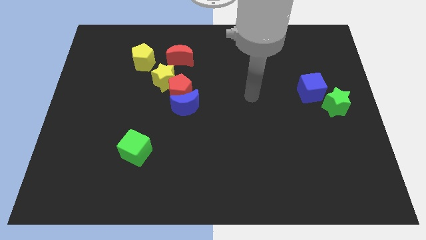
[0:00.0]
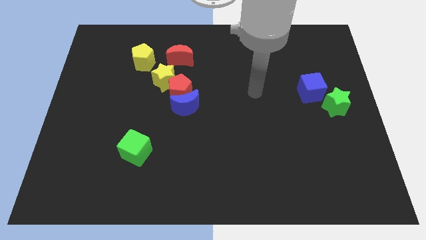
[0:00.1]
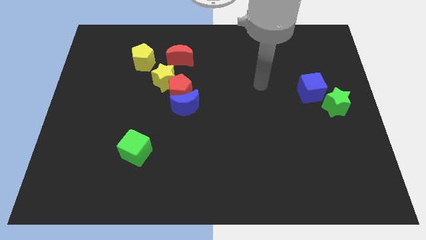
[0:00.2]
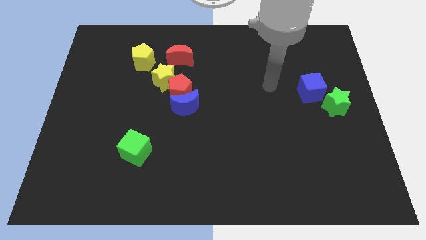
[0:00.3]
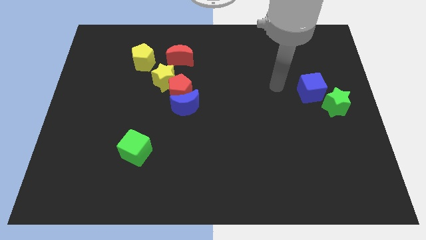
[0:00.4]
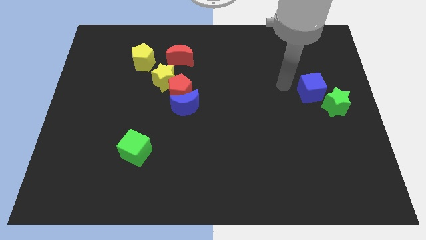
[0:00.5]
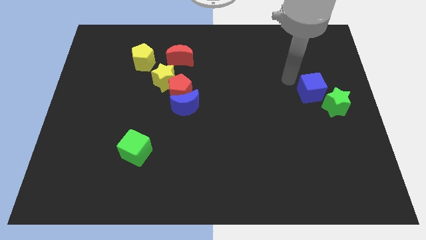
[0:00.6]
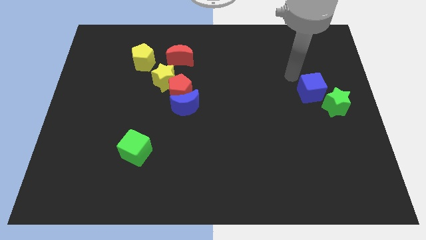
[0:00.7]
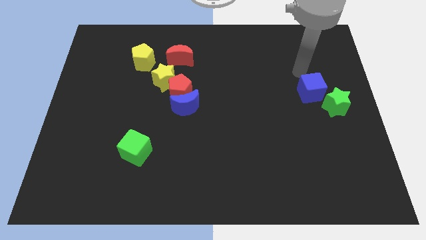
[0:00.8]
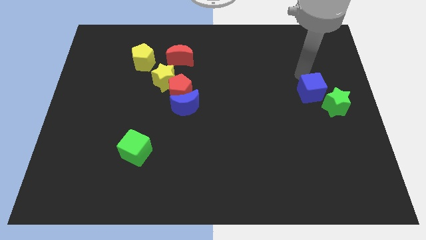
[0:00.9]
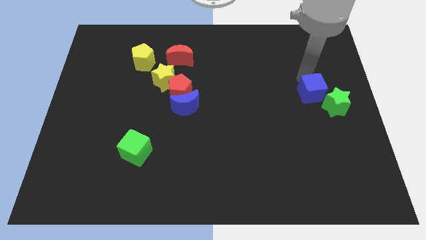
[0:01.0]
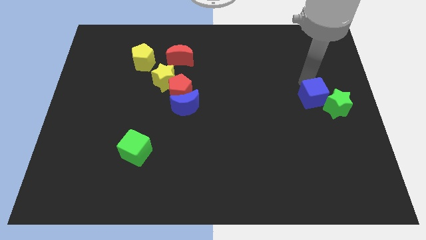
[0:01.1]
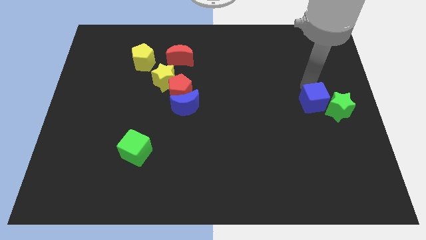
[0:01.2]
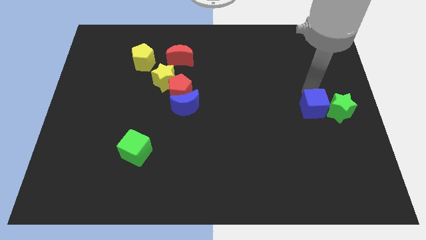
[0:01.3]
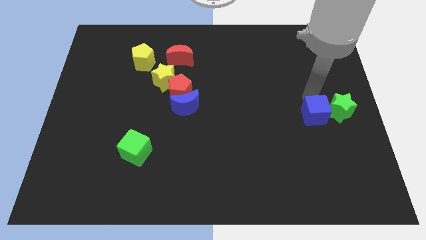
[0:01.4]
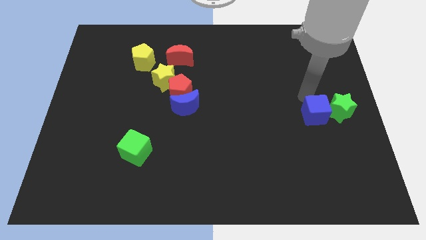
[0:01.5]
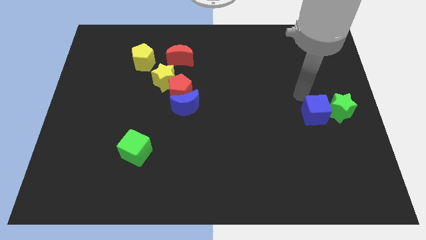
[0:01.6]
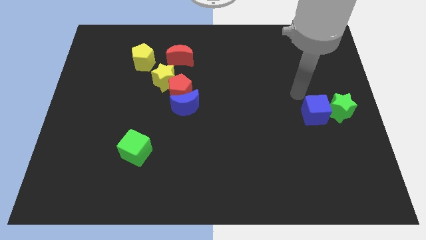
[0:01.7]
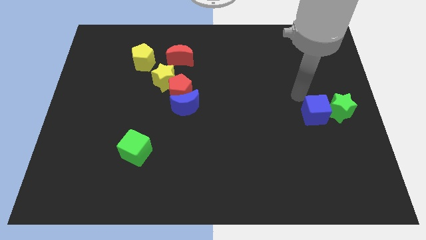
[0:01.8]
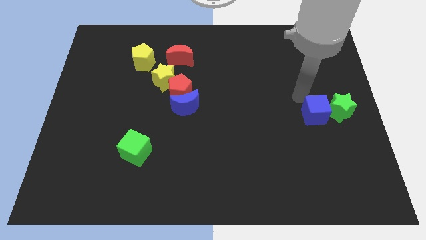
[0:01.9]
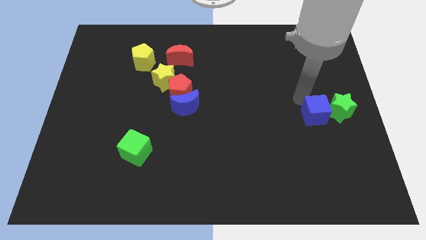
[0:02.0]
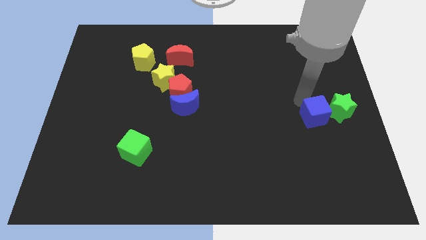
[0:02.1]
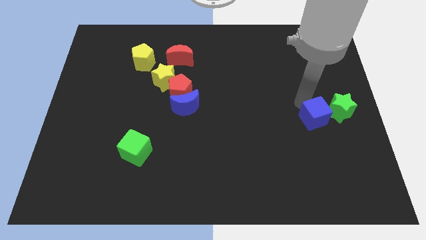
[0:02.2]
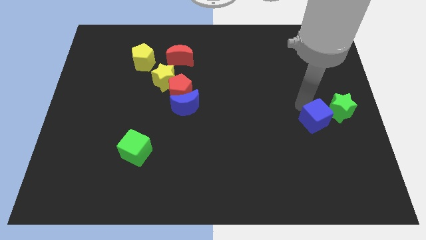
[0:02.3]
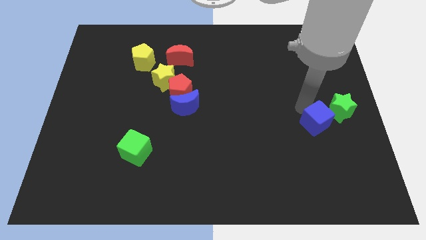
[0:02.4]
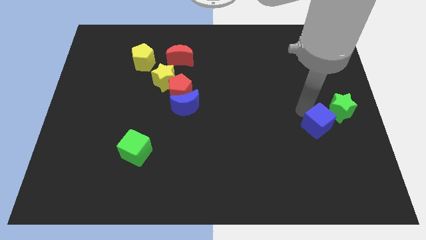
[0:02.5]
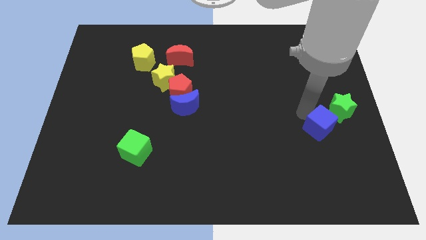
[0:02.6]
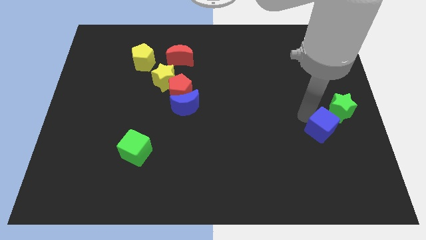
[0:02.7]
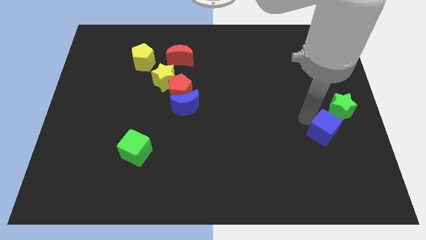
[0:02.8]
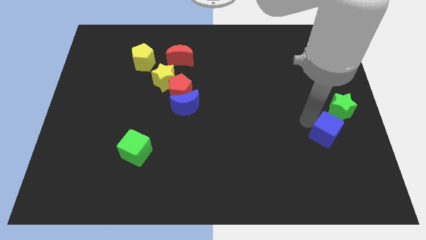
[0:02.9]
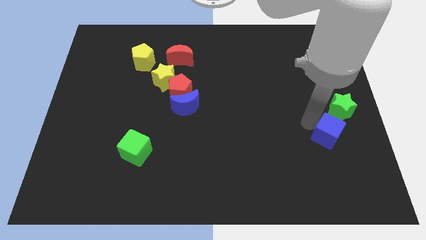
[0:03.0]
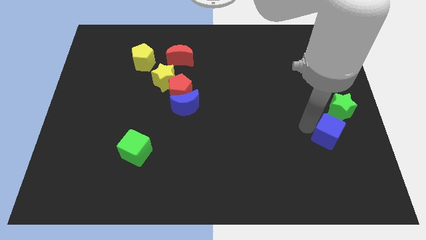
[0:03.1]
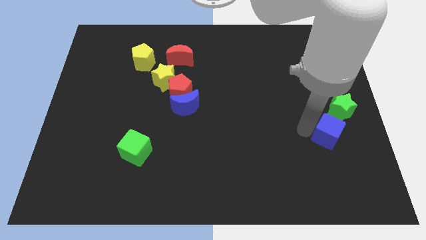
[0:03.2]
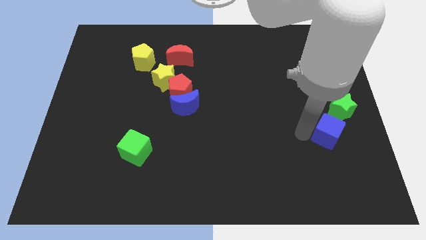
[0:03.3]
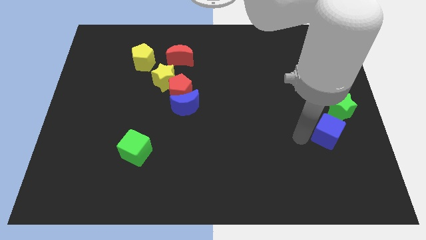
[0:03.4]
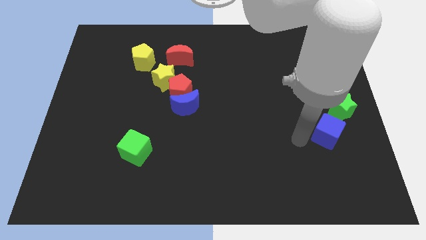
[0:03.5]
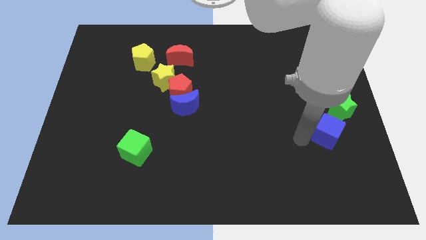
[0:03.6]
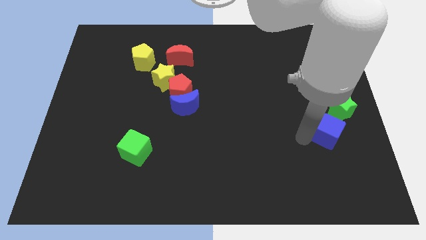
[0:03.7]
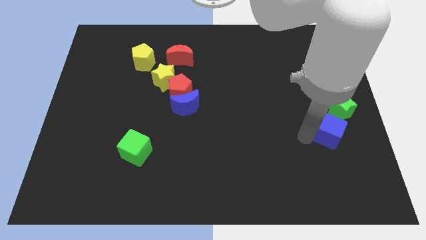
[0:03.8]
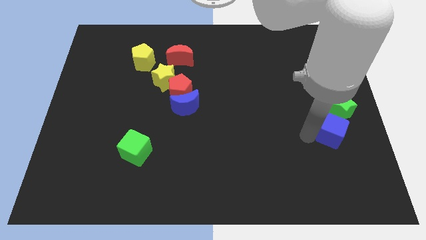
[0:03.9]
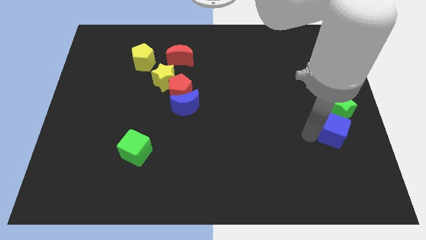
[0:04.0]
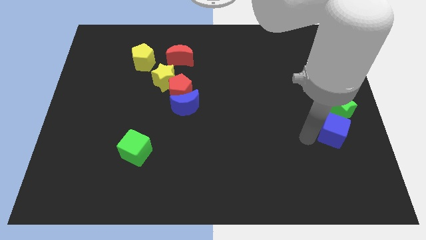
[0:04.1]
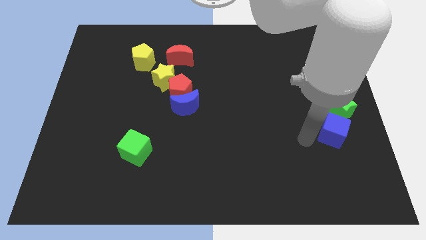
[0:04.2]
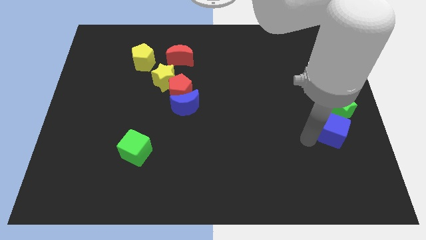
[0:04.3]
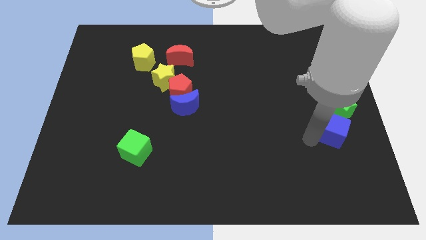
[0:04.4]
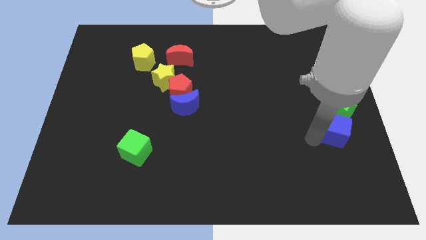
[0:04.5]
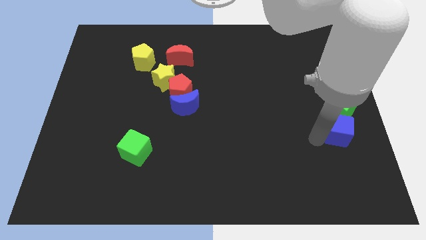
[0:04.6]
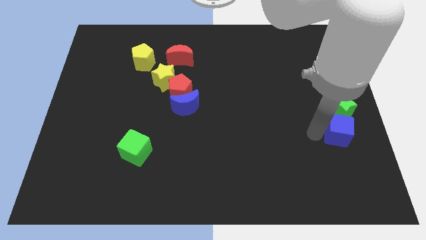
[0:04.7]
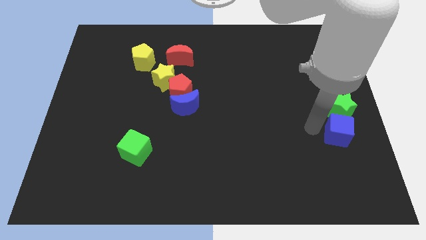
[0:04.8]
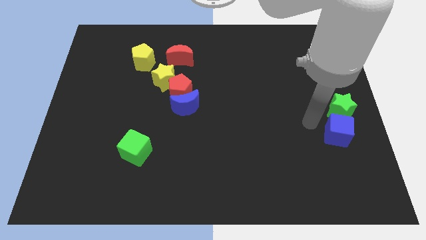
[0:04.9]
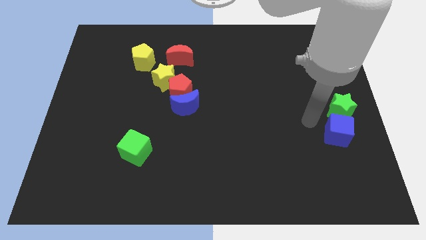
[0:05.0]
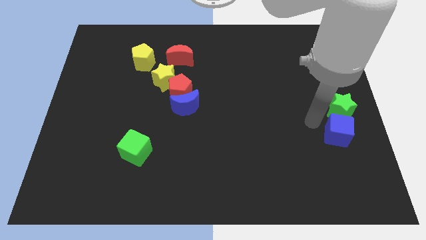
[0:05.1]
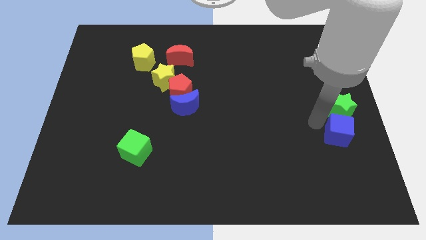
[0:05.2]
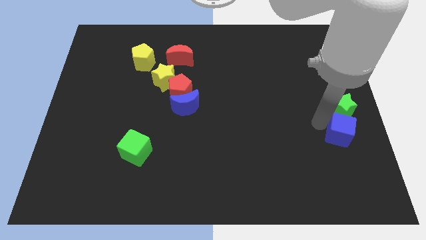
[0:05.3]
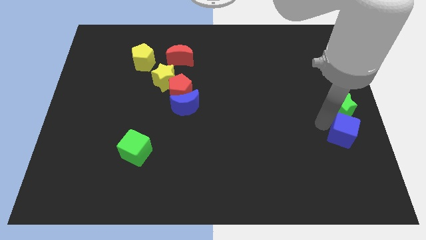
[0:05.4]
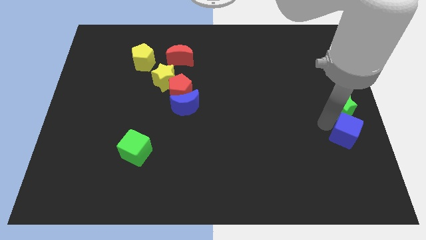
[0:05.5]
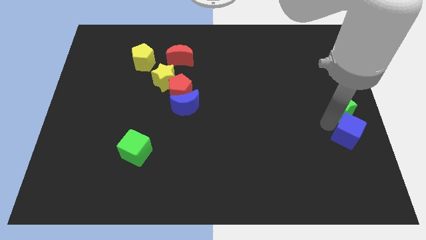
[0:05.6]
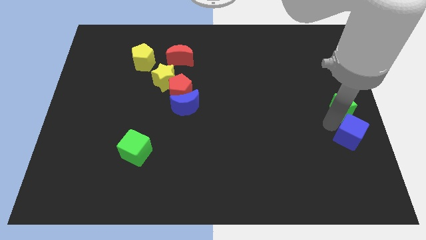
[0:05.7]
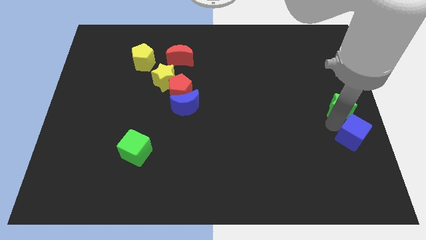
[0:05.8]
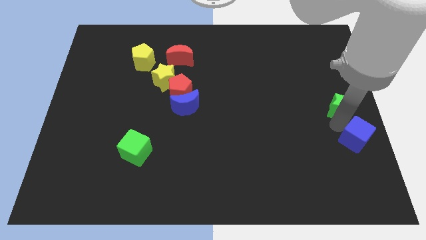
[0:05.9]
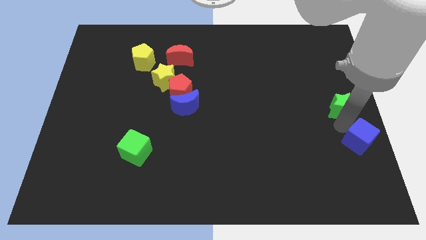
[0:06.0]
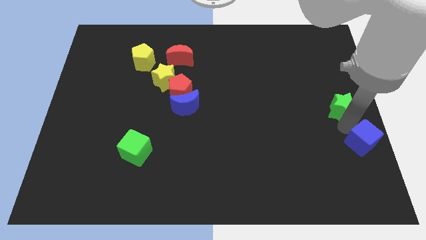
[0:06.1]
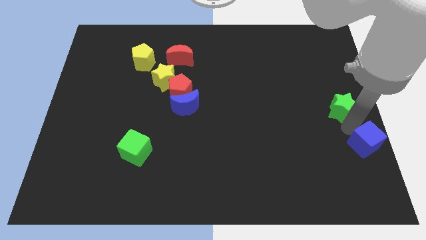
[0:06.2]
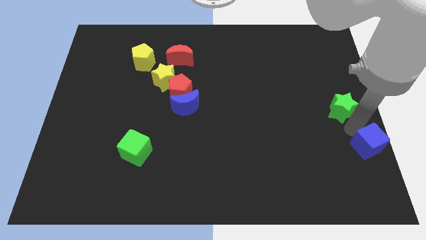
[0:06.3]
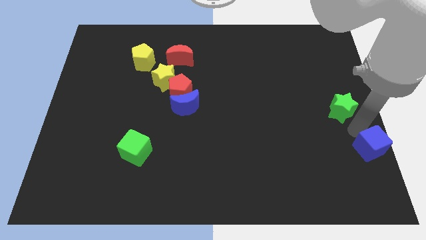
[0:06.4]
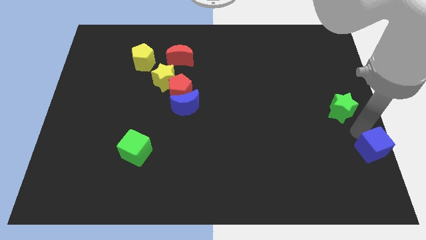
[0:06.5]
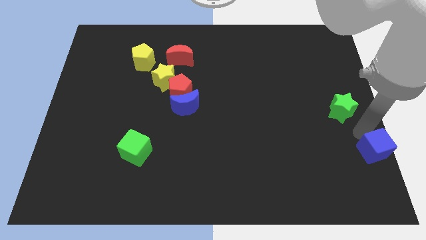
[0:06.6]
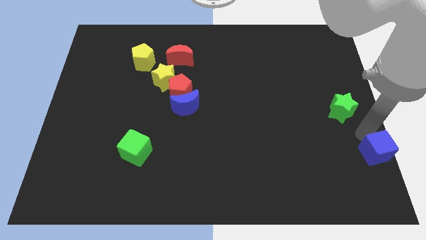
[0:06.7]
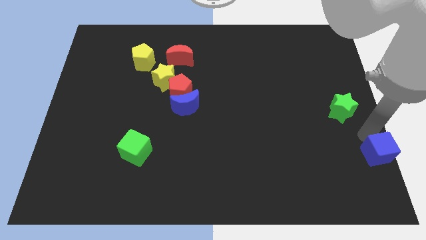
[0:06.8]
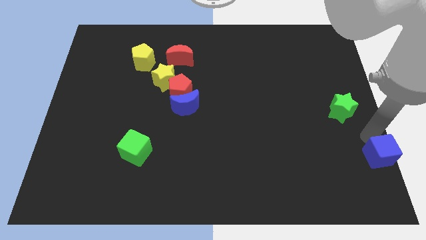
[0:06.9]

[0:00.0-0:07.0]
put the blue cube to the lower right corner
